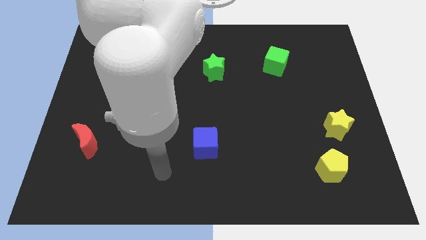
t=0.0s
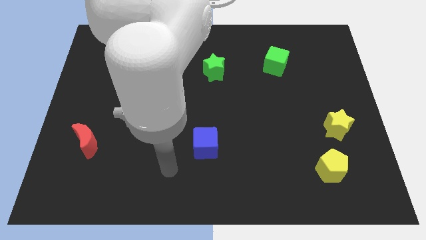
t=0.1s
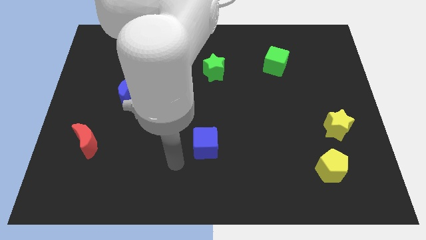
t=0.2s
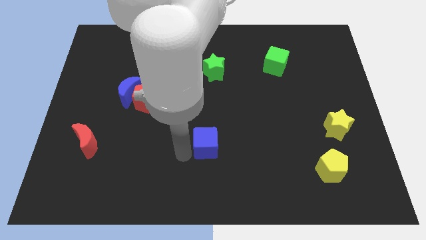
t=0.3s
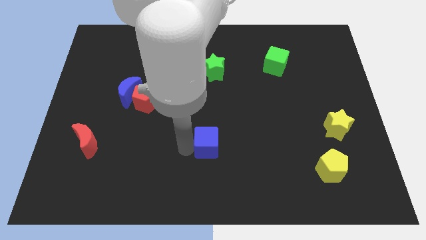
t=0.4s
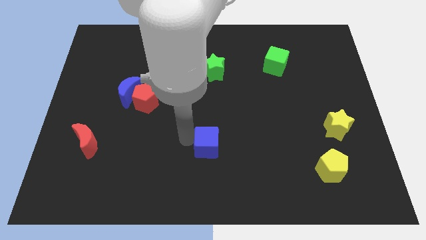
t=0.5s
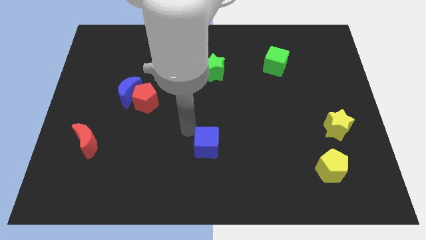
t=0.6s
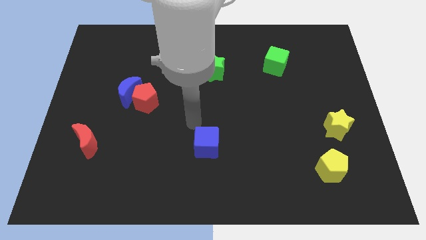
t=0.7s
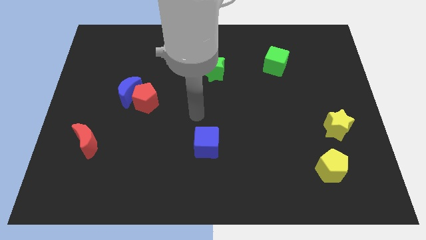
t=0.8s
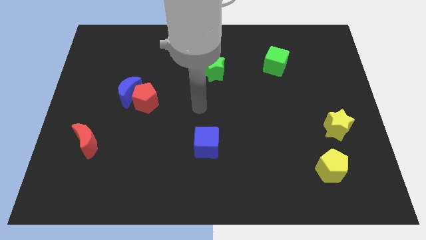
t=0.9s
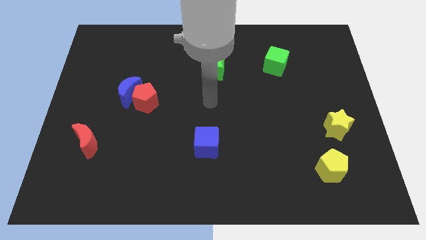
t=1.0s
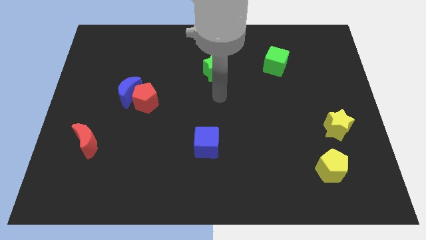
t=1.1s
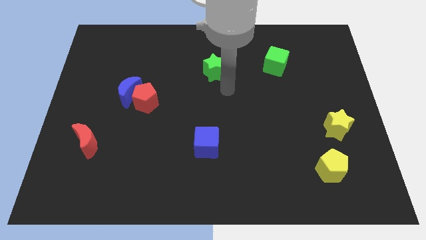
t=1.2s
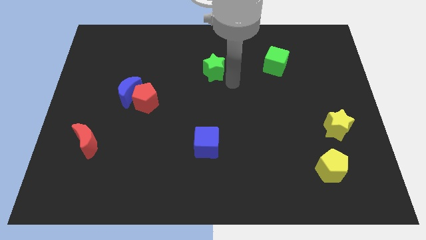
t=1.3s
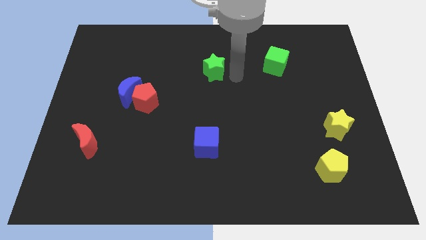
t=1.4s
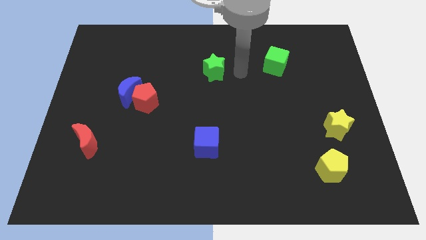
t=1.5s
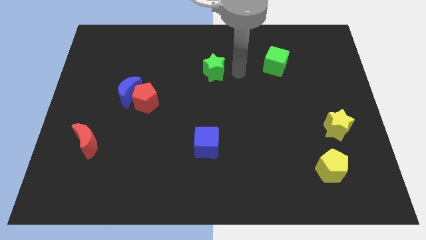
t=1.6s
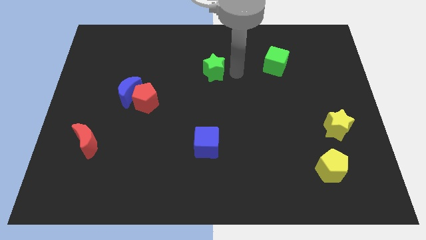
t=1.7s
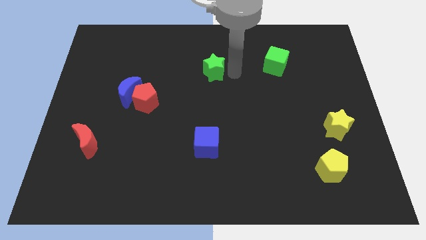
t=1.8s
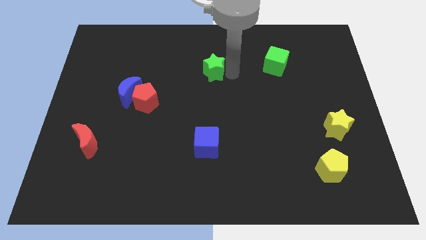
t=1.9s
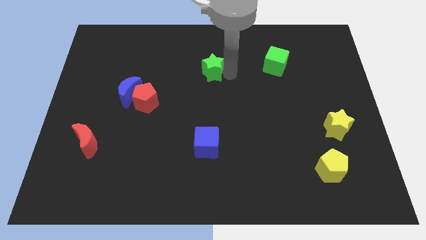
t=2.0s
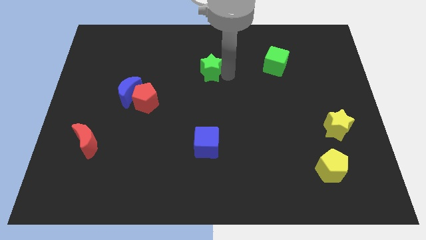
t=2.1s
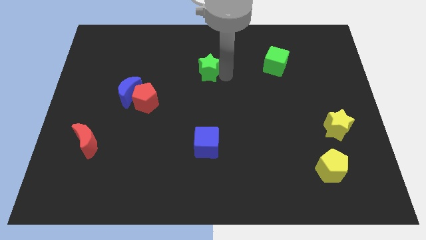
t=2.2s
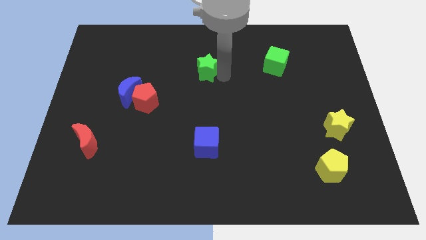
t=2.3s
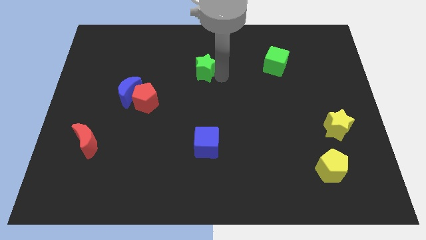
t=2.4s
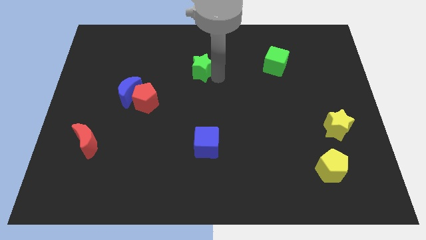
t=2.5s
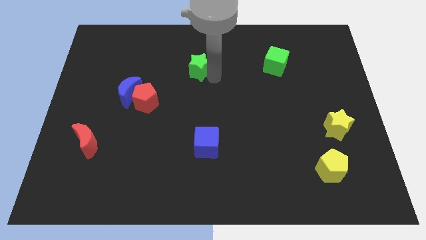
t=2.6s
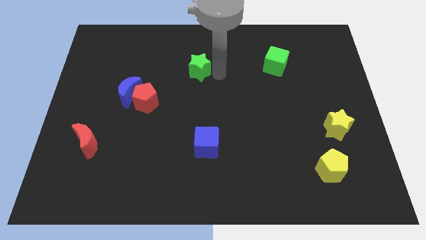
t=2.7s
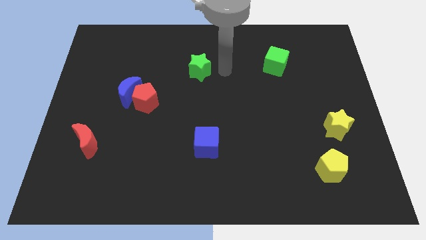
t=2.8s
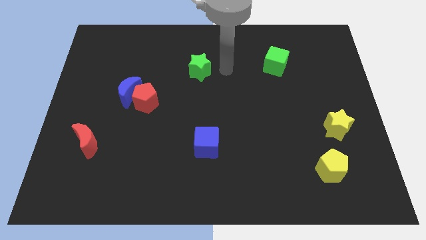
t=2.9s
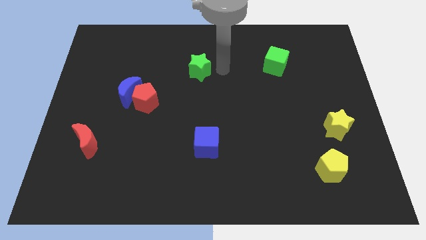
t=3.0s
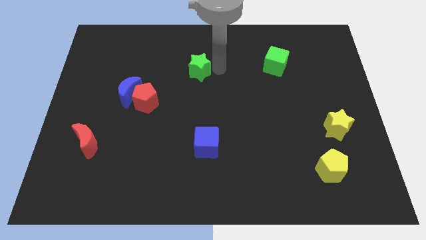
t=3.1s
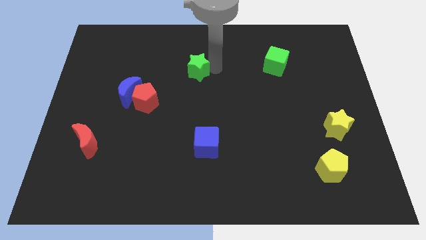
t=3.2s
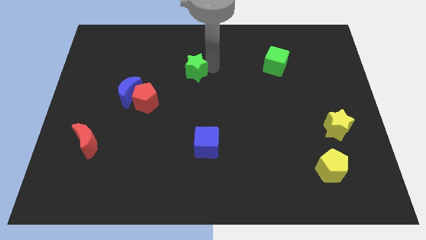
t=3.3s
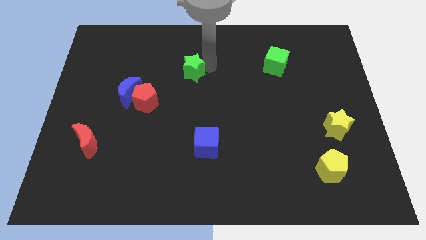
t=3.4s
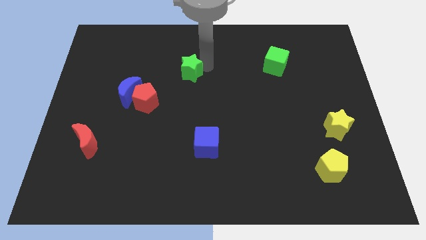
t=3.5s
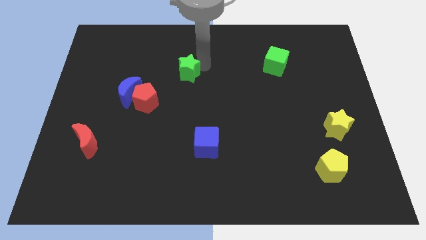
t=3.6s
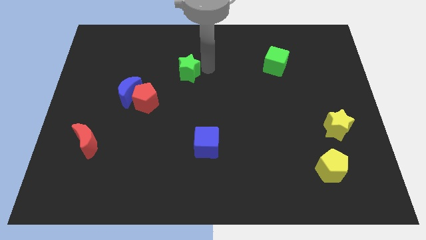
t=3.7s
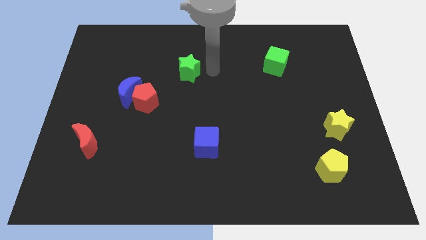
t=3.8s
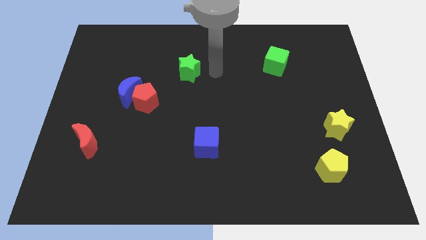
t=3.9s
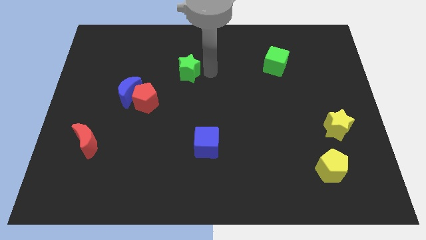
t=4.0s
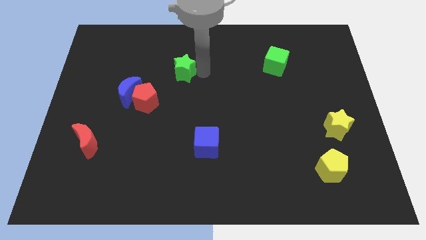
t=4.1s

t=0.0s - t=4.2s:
slide the green star a little to the left

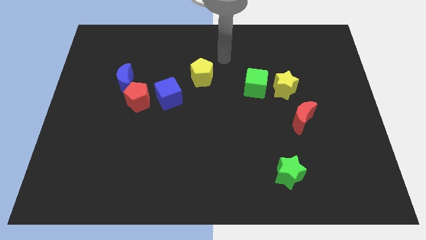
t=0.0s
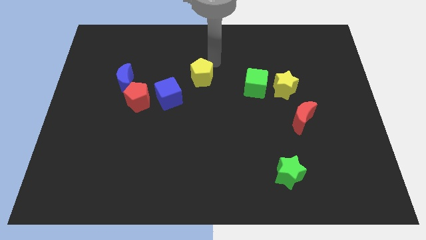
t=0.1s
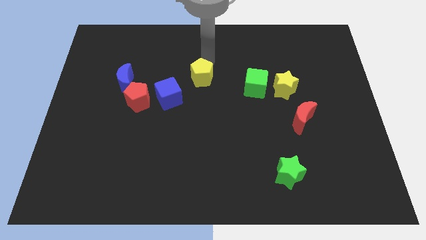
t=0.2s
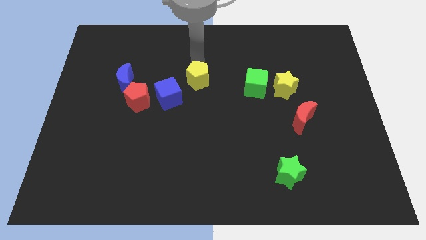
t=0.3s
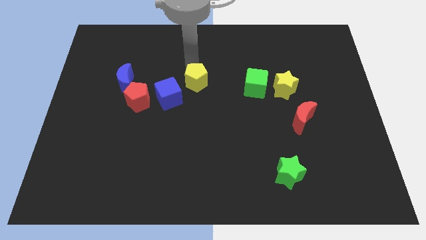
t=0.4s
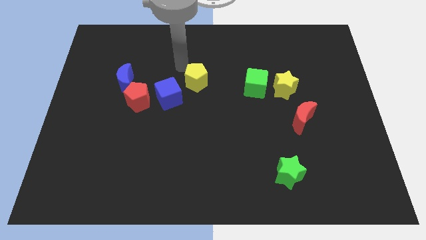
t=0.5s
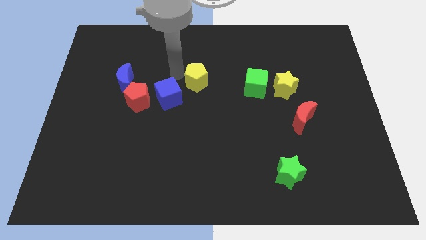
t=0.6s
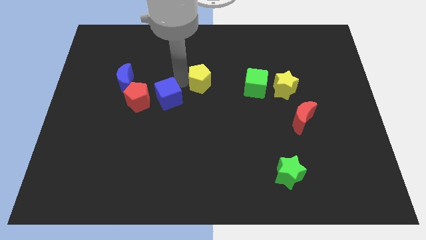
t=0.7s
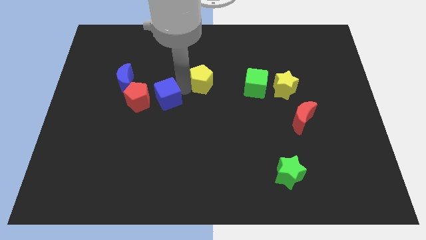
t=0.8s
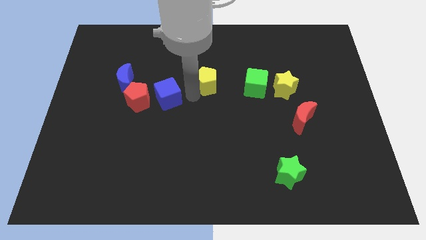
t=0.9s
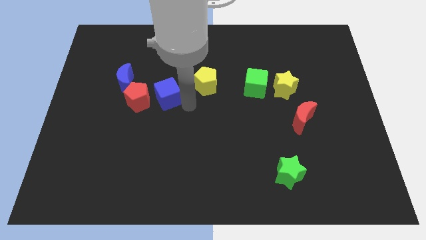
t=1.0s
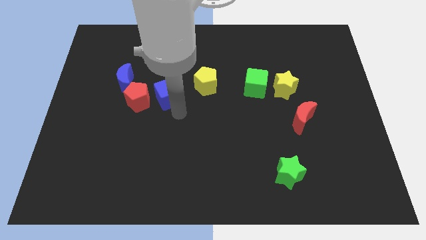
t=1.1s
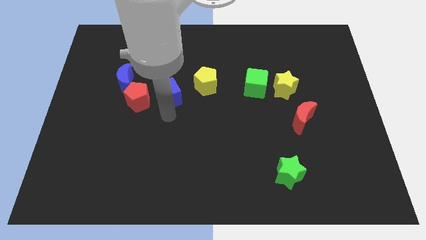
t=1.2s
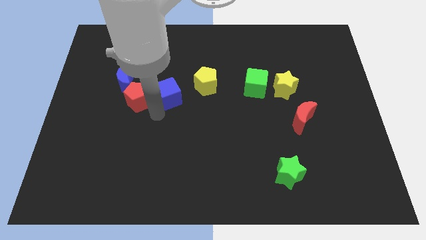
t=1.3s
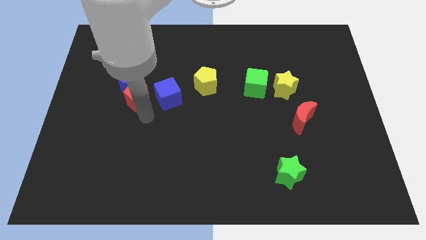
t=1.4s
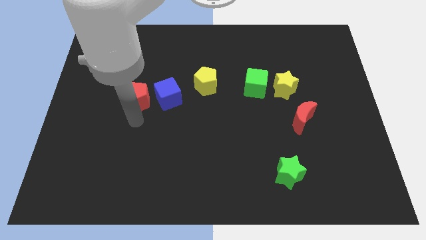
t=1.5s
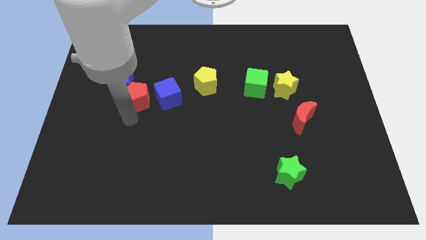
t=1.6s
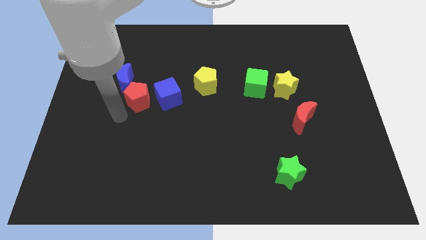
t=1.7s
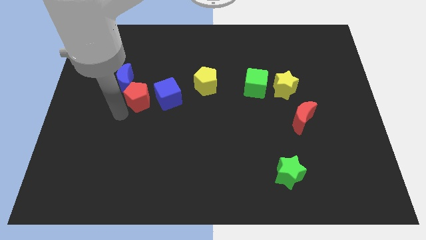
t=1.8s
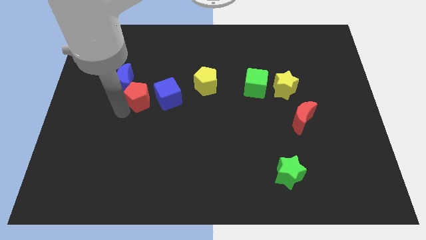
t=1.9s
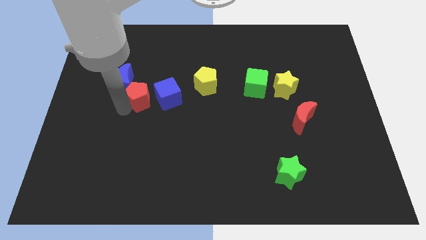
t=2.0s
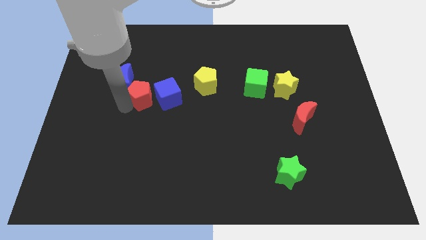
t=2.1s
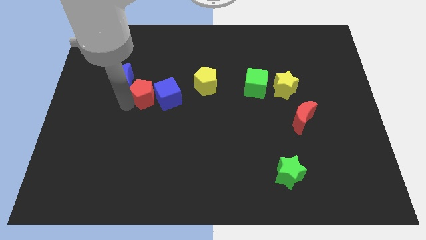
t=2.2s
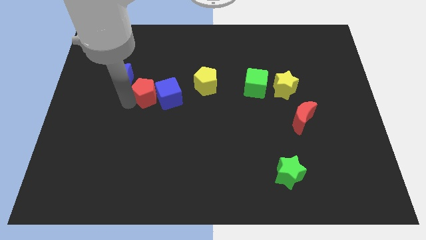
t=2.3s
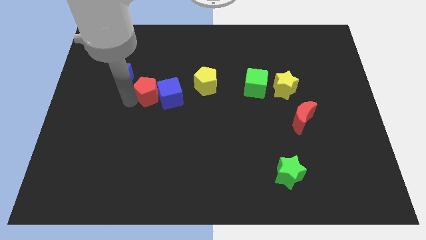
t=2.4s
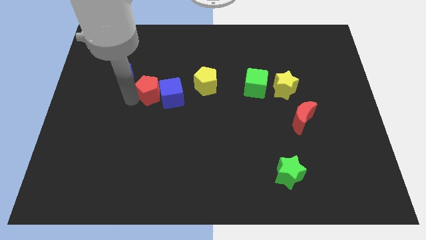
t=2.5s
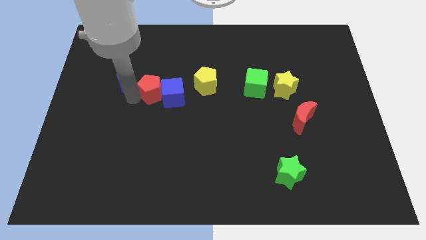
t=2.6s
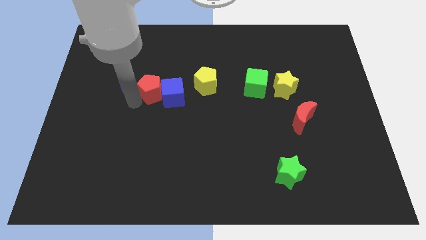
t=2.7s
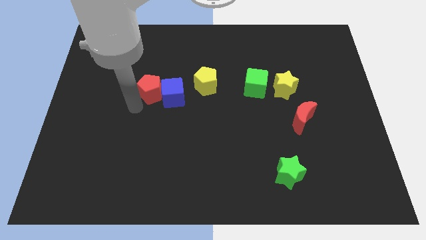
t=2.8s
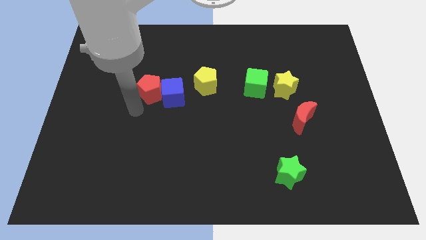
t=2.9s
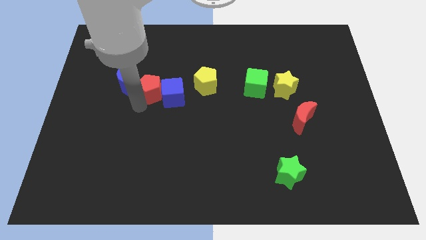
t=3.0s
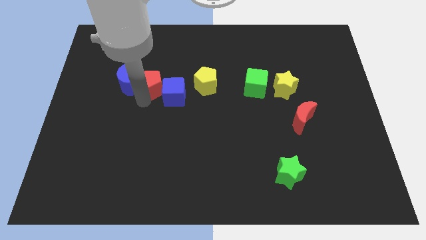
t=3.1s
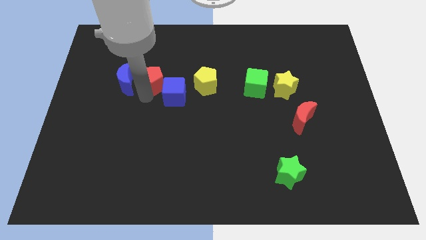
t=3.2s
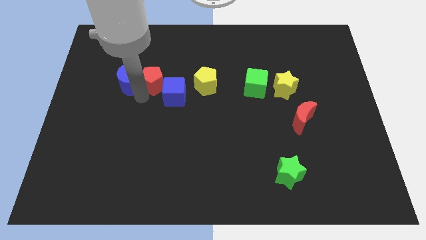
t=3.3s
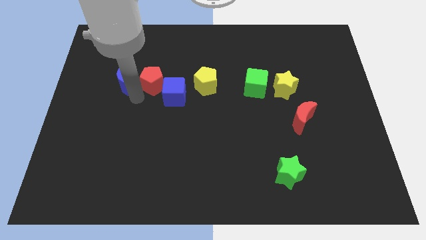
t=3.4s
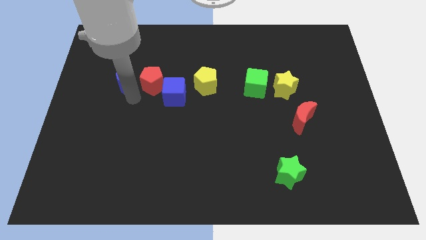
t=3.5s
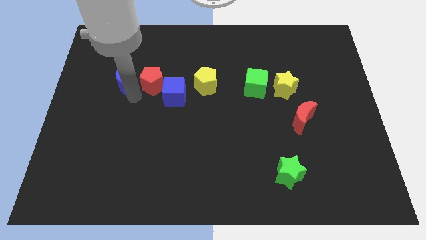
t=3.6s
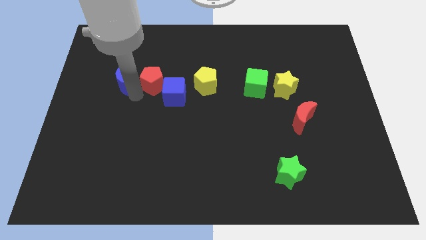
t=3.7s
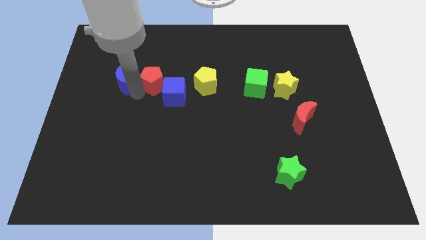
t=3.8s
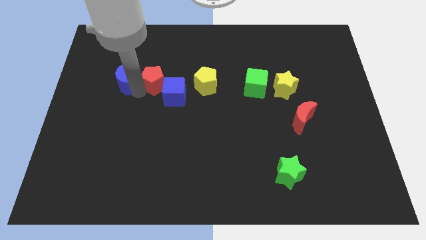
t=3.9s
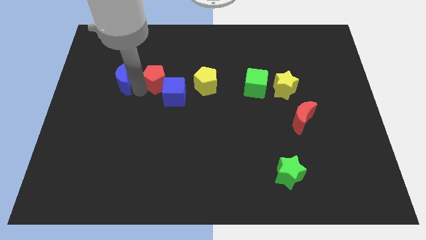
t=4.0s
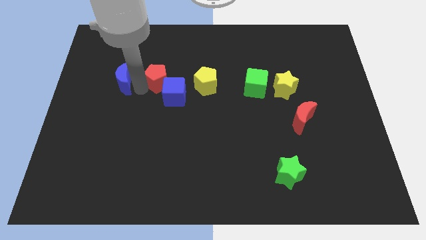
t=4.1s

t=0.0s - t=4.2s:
slightly move the red pentagon upwards and then right
